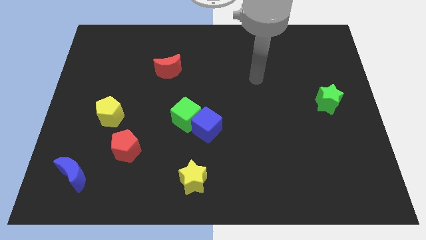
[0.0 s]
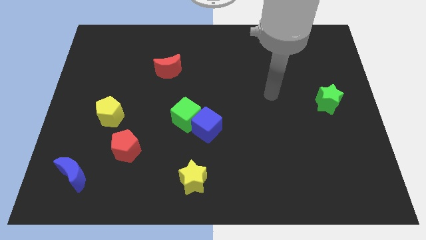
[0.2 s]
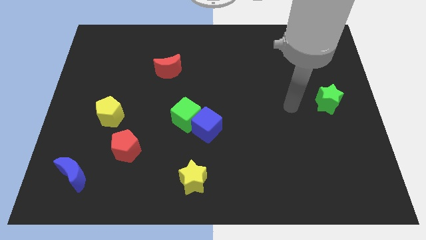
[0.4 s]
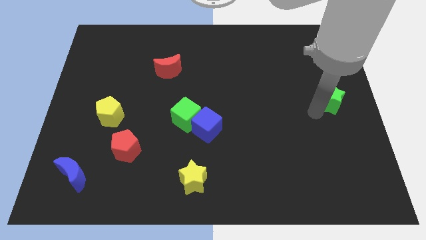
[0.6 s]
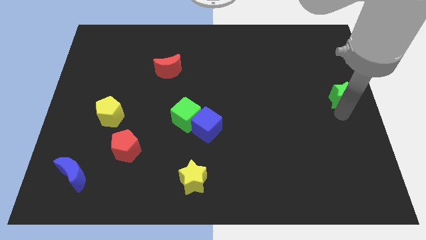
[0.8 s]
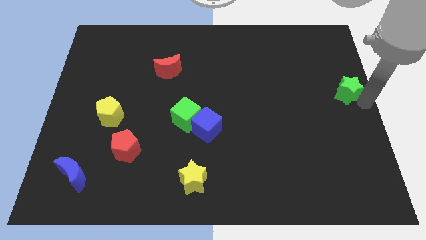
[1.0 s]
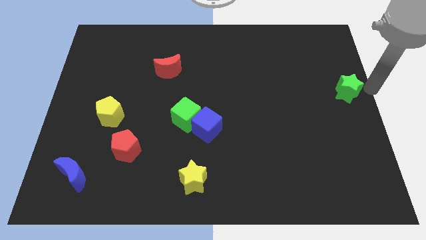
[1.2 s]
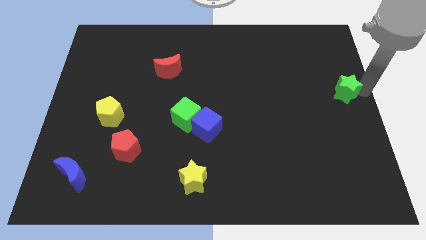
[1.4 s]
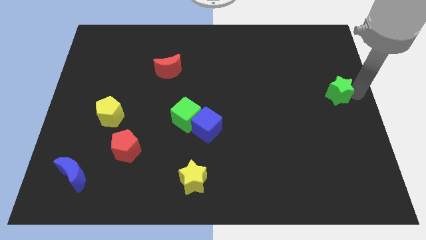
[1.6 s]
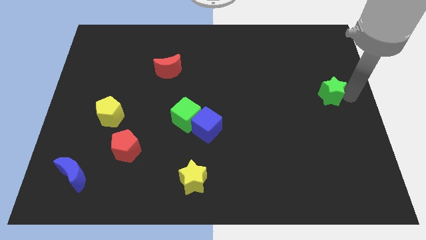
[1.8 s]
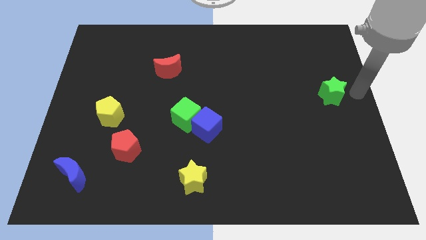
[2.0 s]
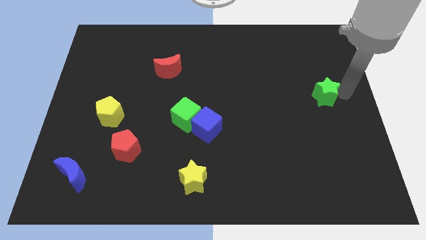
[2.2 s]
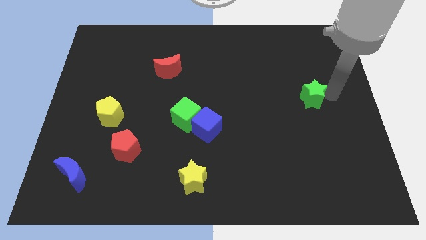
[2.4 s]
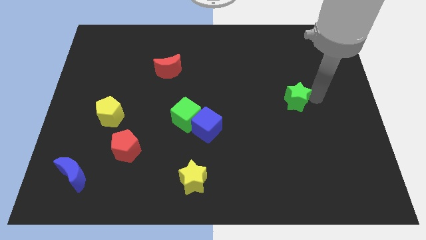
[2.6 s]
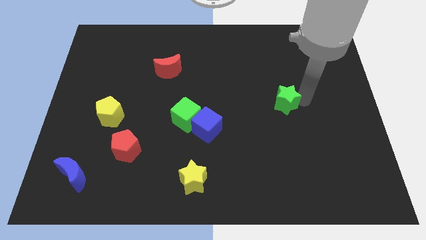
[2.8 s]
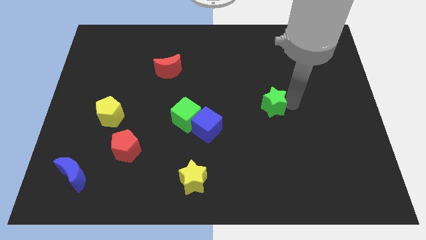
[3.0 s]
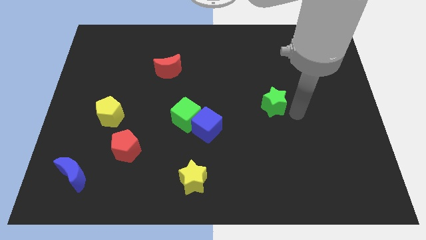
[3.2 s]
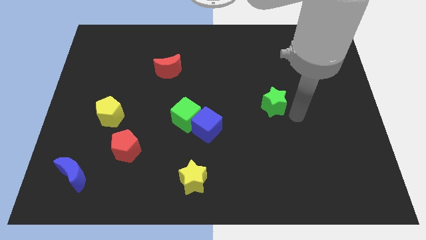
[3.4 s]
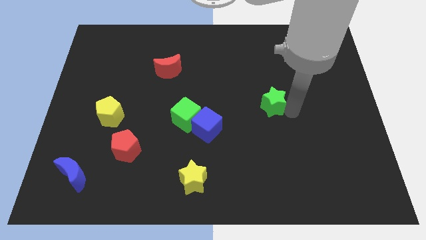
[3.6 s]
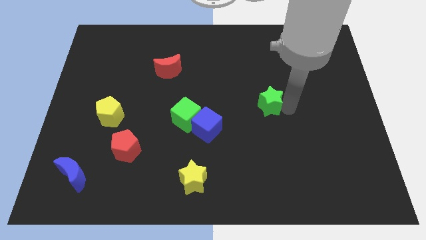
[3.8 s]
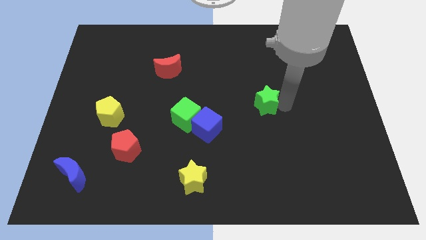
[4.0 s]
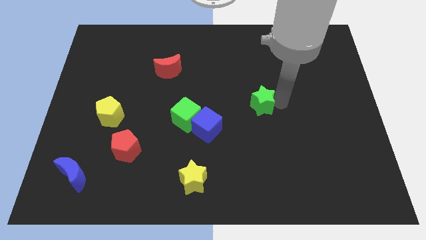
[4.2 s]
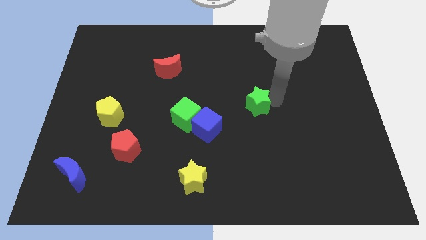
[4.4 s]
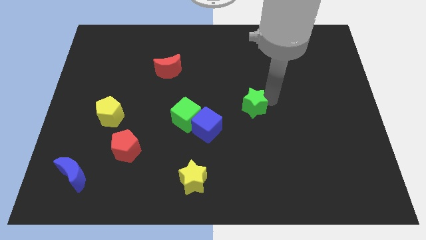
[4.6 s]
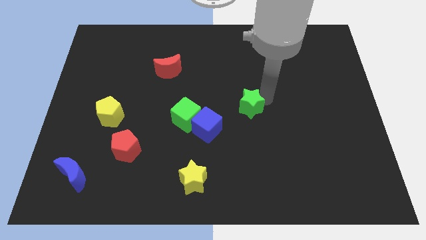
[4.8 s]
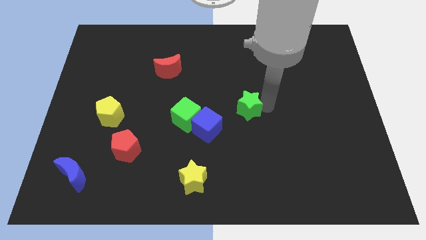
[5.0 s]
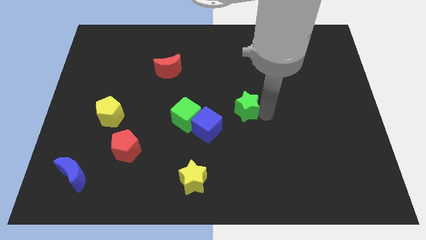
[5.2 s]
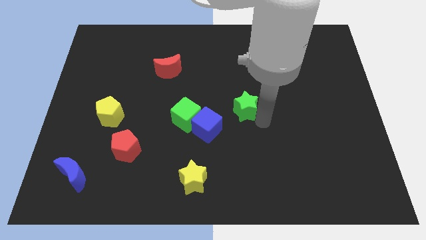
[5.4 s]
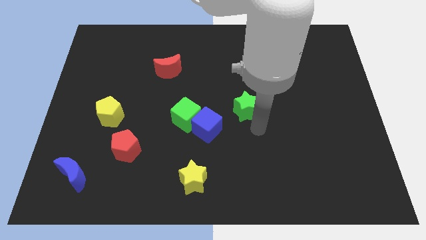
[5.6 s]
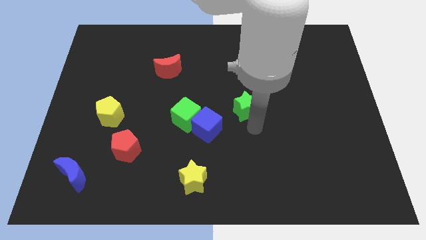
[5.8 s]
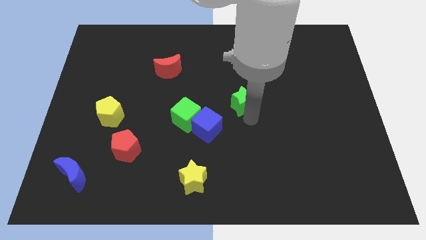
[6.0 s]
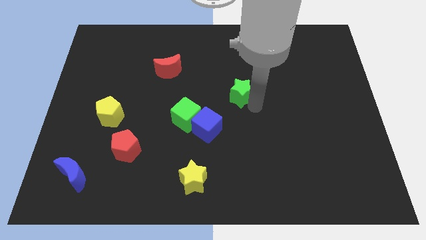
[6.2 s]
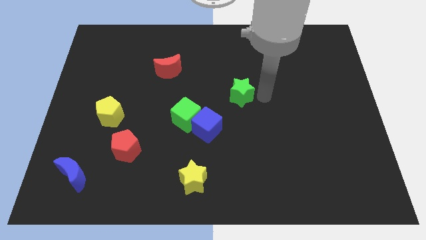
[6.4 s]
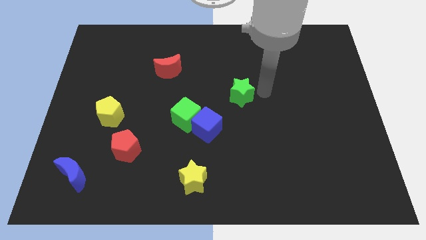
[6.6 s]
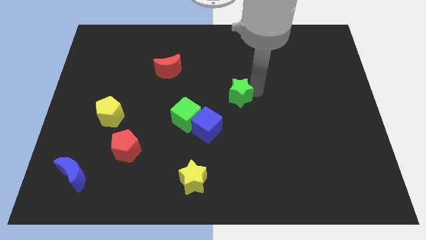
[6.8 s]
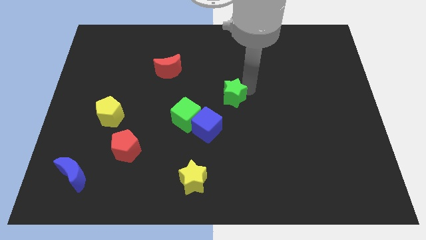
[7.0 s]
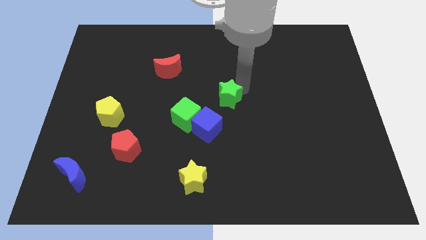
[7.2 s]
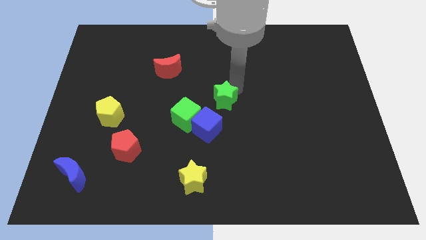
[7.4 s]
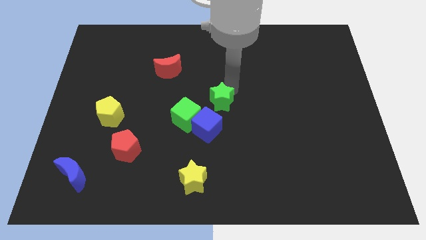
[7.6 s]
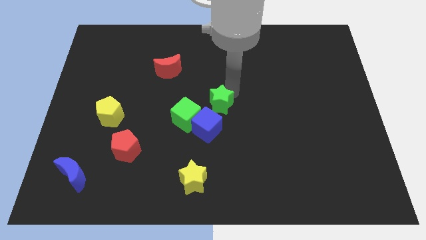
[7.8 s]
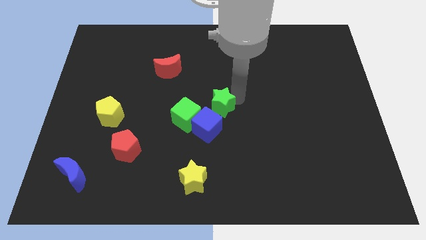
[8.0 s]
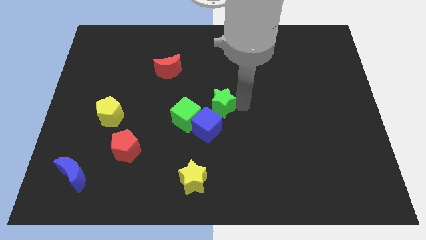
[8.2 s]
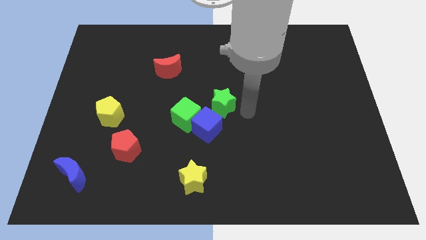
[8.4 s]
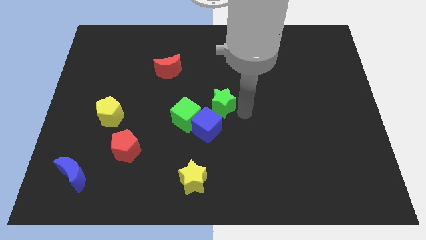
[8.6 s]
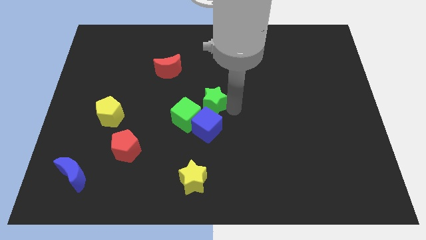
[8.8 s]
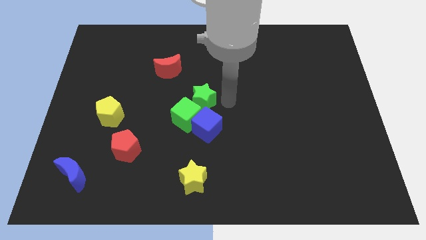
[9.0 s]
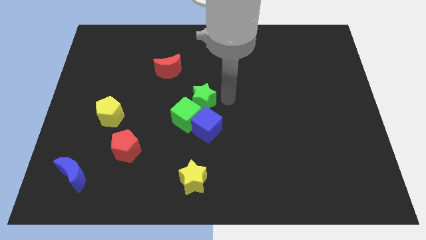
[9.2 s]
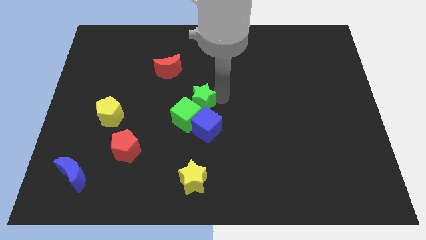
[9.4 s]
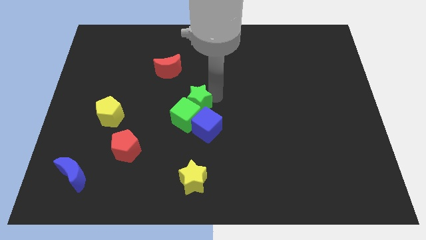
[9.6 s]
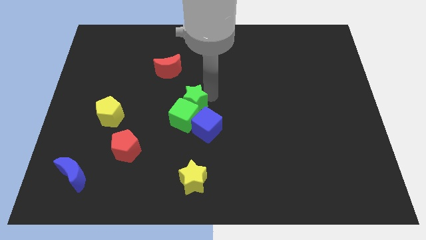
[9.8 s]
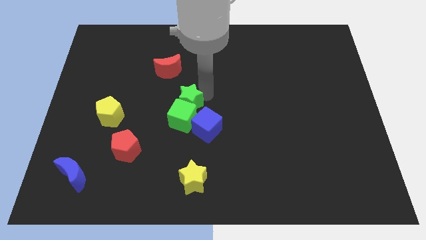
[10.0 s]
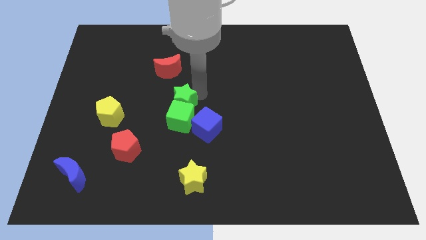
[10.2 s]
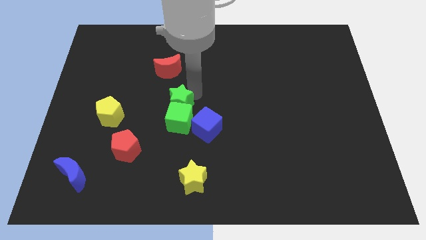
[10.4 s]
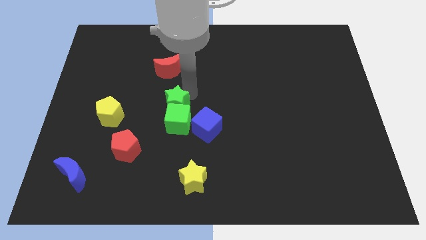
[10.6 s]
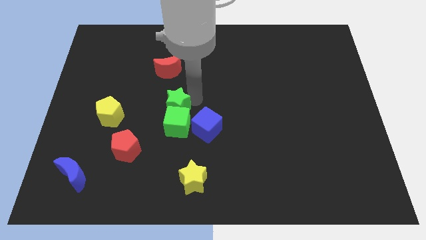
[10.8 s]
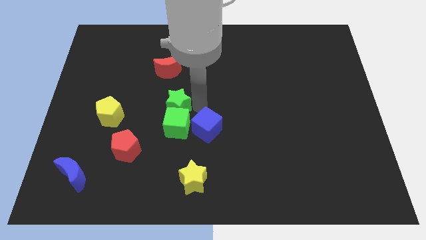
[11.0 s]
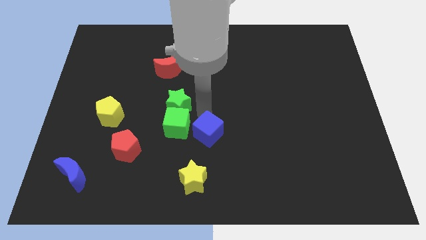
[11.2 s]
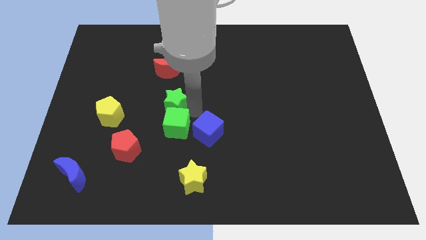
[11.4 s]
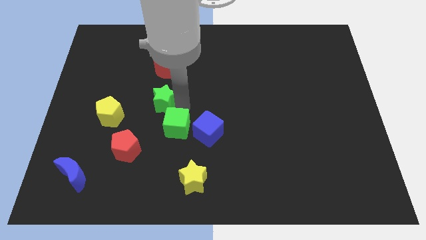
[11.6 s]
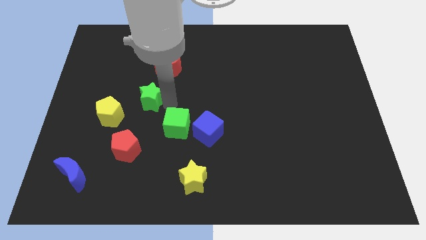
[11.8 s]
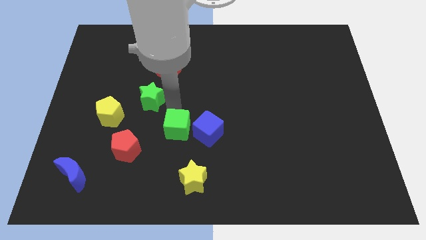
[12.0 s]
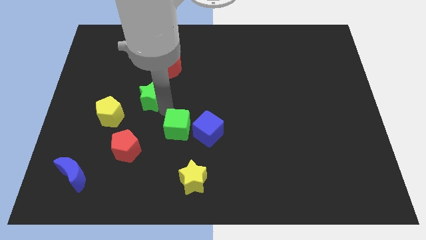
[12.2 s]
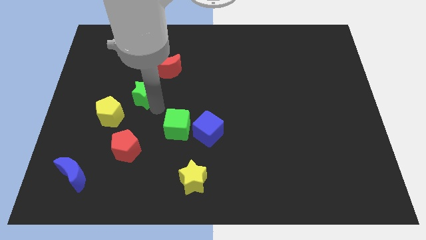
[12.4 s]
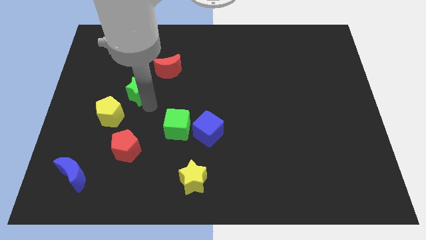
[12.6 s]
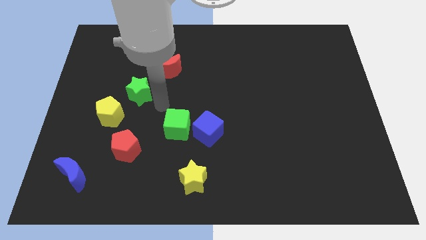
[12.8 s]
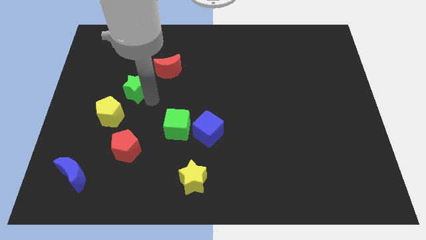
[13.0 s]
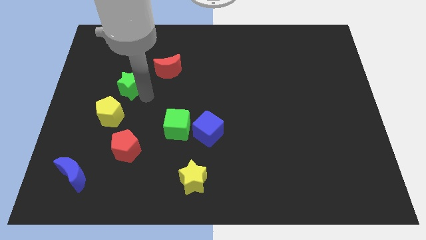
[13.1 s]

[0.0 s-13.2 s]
push the green star to the top side of the yellow pentagon

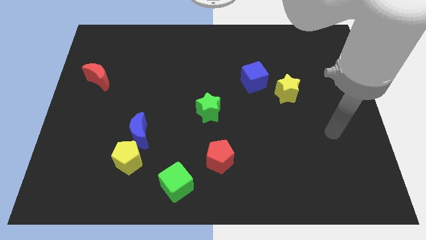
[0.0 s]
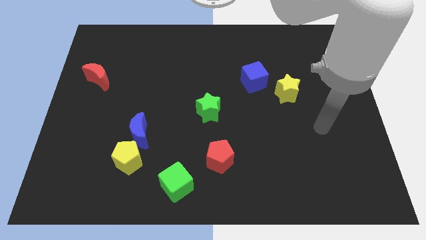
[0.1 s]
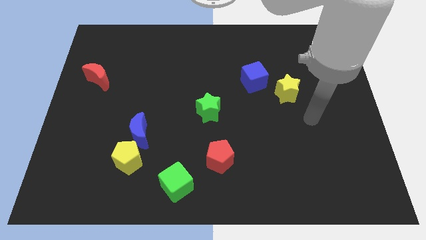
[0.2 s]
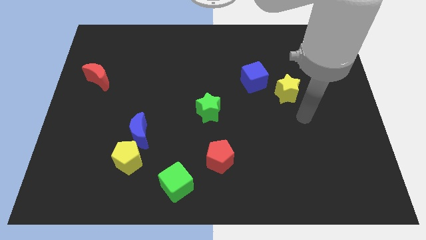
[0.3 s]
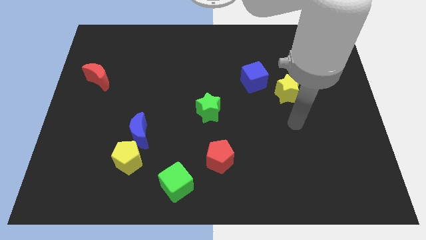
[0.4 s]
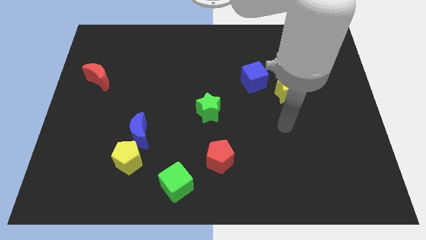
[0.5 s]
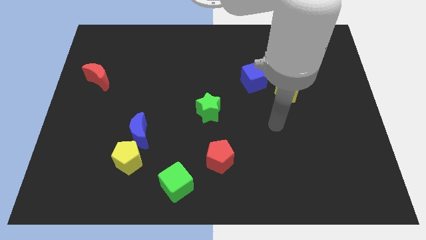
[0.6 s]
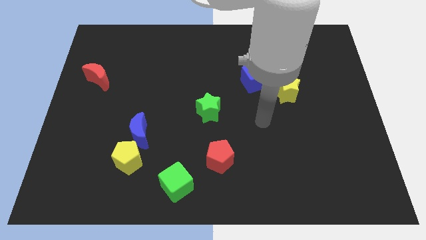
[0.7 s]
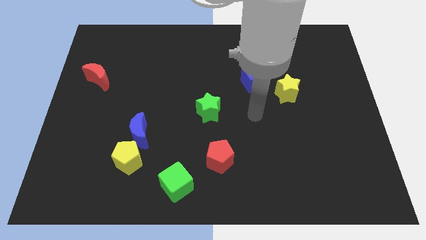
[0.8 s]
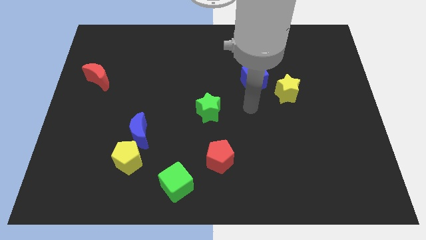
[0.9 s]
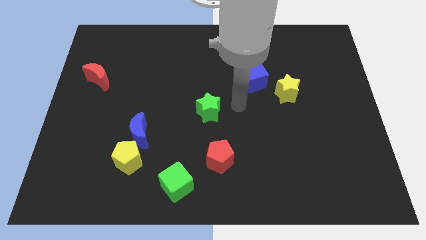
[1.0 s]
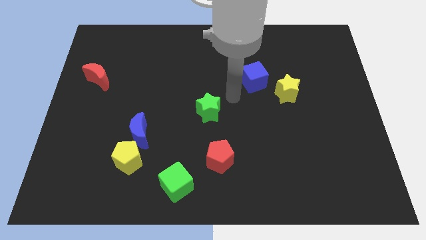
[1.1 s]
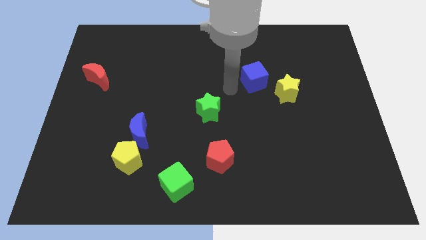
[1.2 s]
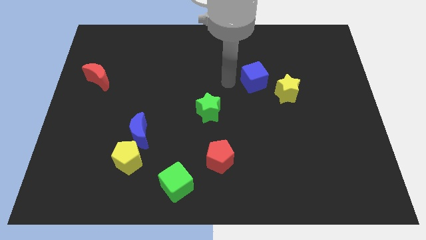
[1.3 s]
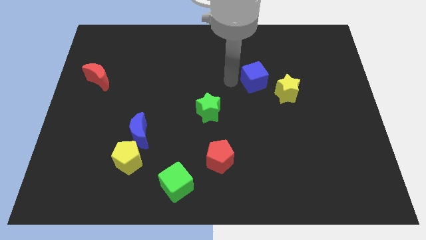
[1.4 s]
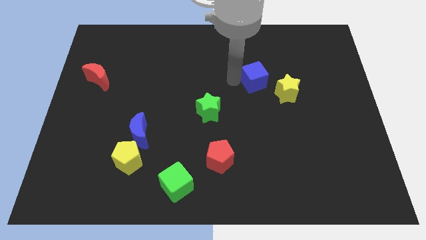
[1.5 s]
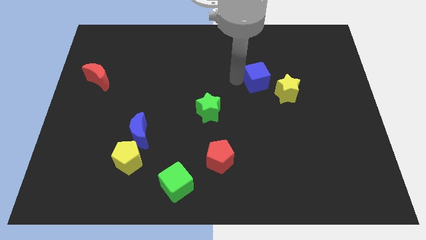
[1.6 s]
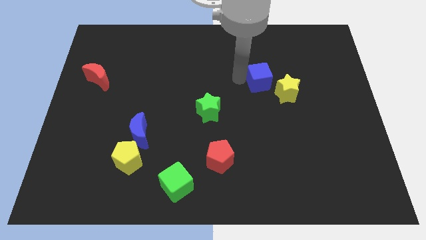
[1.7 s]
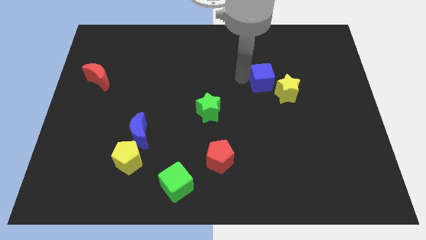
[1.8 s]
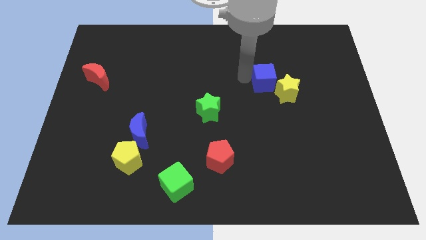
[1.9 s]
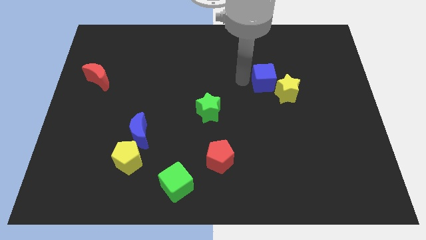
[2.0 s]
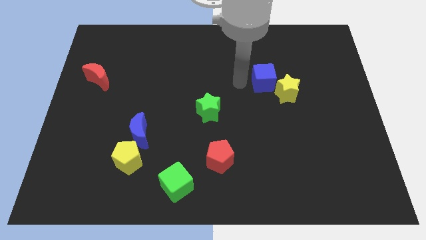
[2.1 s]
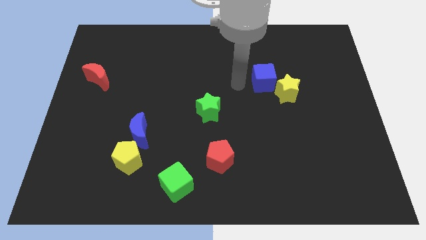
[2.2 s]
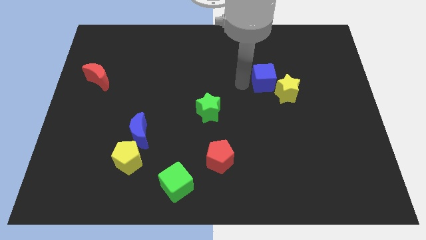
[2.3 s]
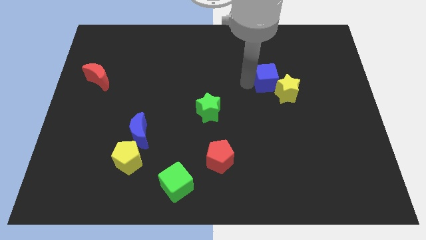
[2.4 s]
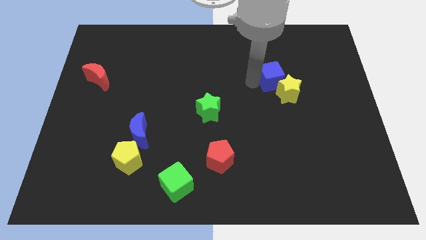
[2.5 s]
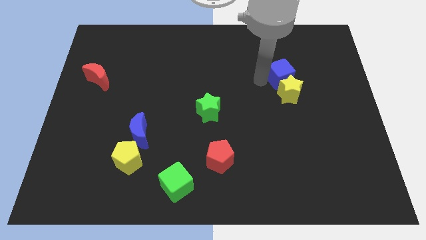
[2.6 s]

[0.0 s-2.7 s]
put the blue cube to the top right side of the yellow star
